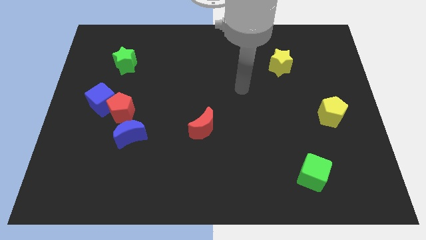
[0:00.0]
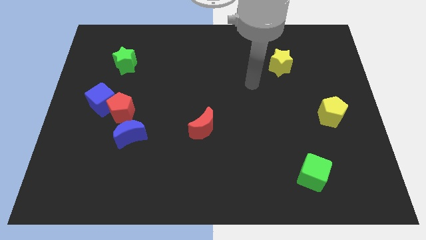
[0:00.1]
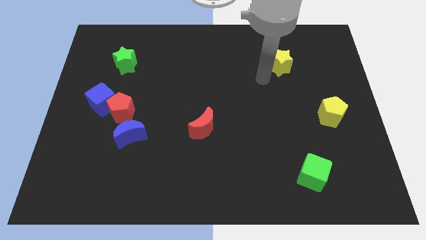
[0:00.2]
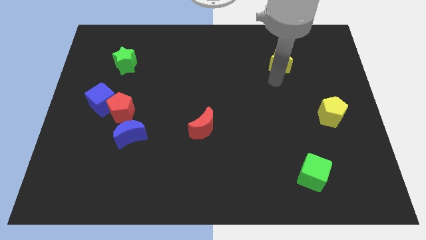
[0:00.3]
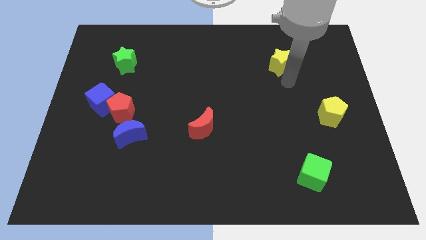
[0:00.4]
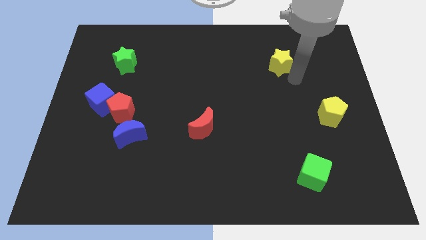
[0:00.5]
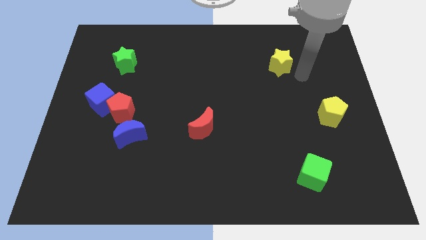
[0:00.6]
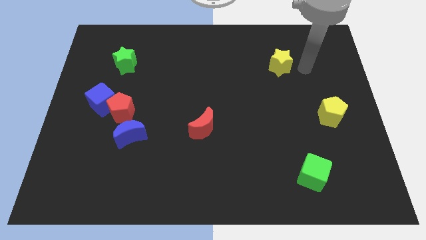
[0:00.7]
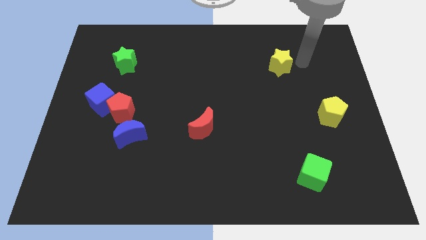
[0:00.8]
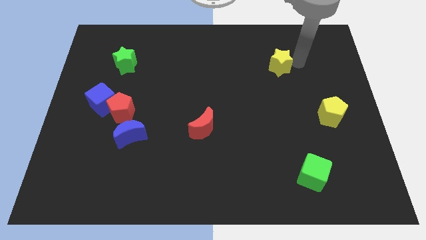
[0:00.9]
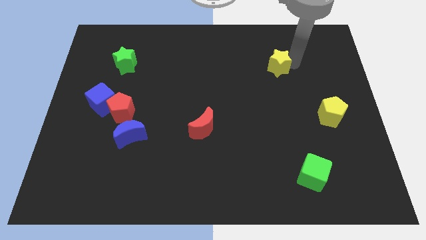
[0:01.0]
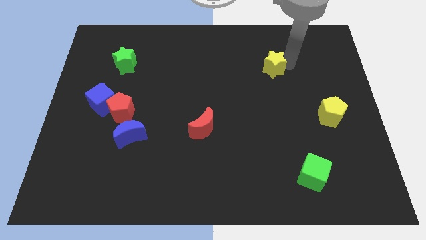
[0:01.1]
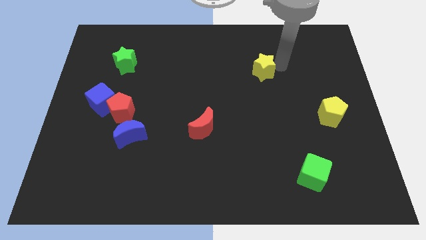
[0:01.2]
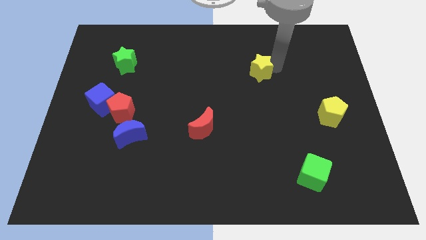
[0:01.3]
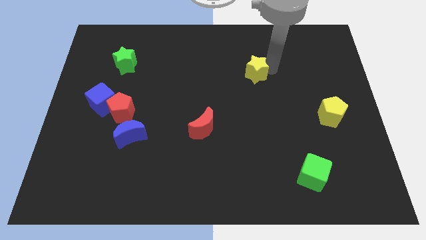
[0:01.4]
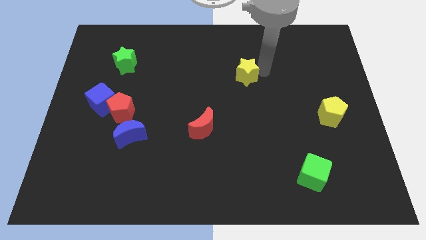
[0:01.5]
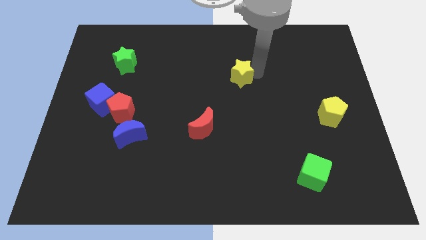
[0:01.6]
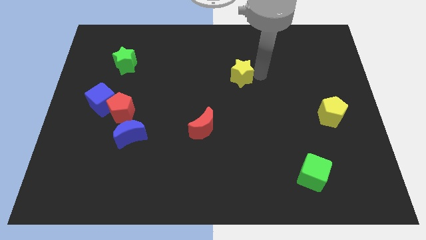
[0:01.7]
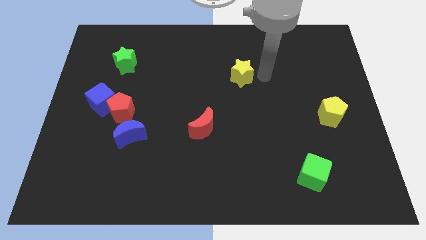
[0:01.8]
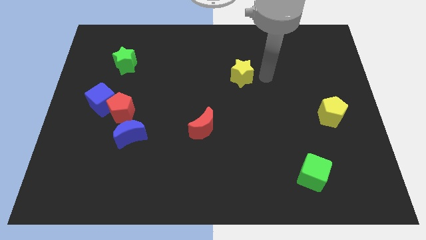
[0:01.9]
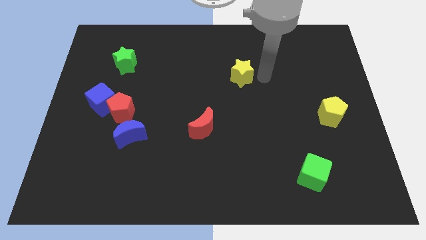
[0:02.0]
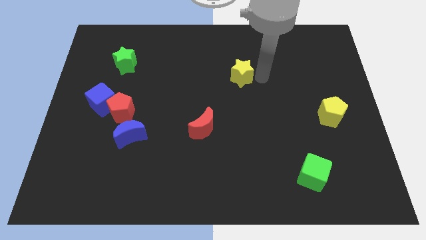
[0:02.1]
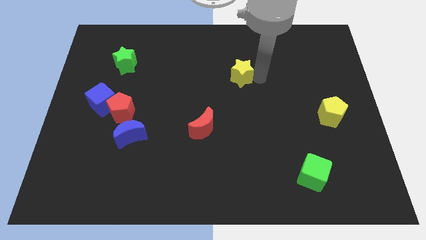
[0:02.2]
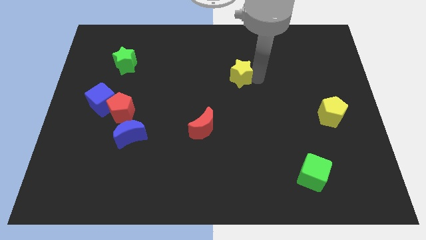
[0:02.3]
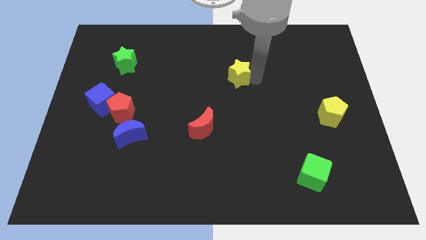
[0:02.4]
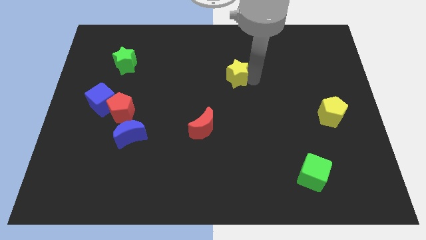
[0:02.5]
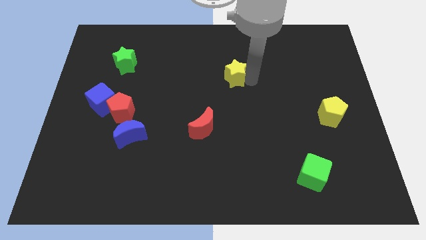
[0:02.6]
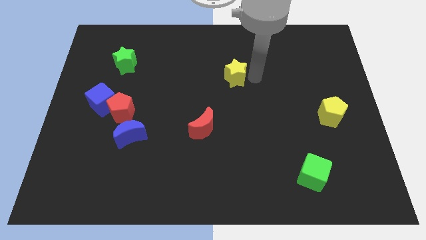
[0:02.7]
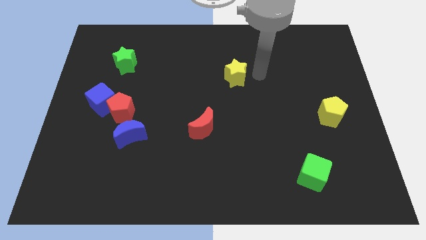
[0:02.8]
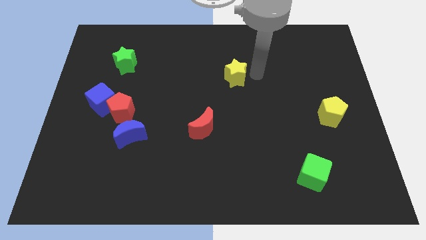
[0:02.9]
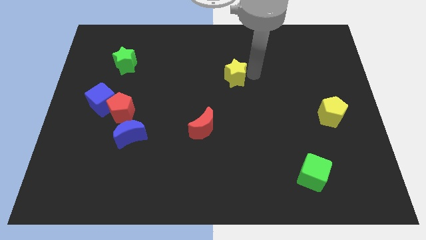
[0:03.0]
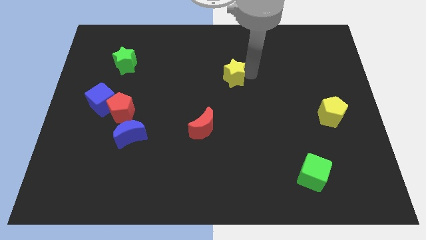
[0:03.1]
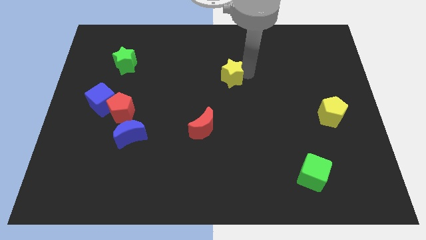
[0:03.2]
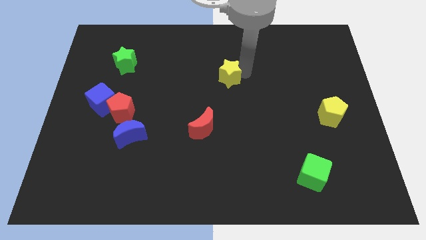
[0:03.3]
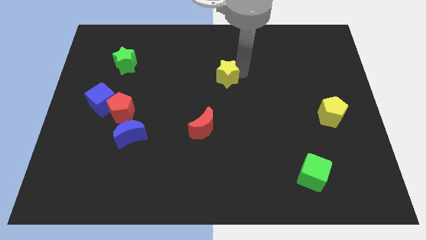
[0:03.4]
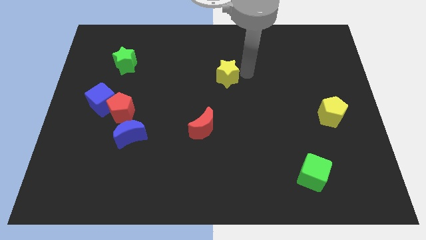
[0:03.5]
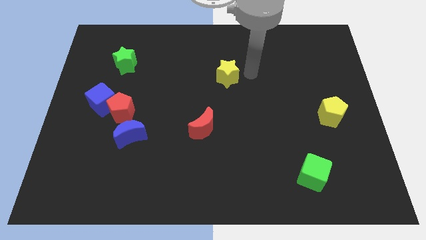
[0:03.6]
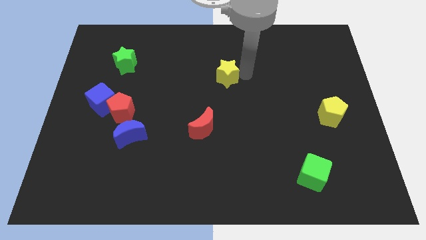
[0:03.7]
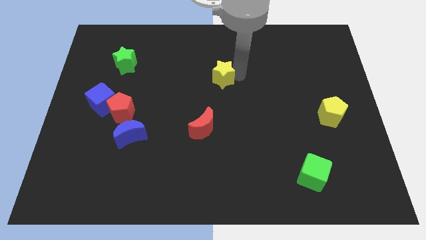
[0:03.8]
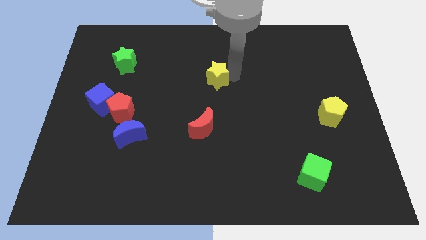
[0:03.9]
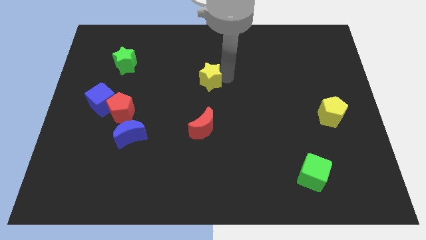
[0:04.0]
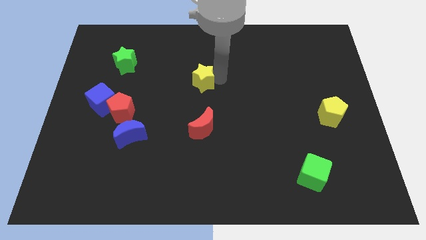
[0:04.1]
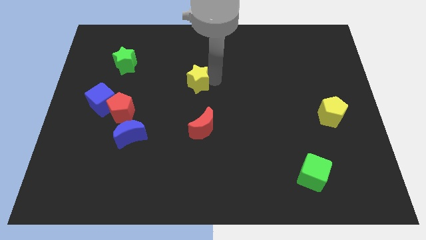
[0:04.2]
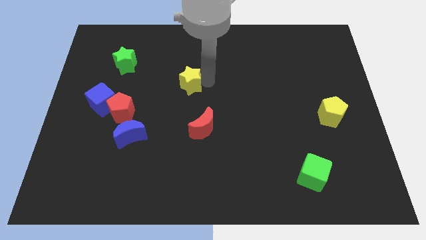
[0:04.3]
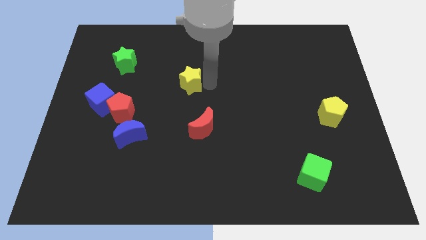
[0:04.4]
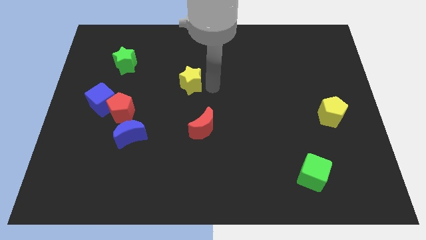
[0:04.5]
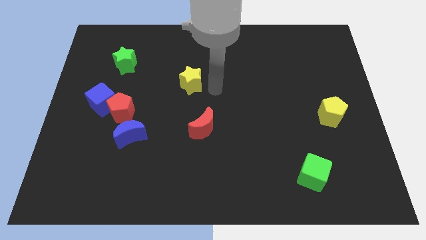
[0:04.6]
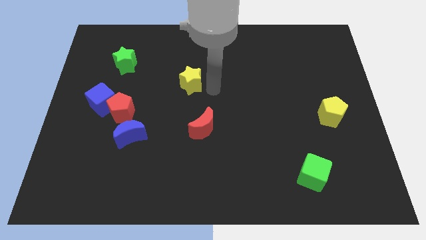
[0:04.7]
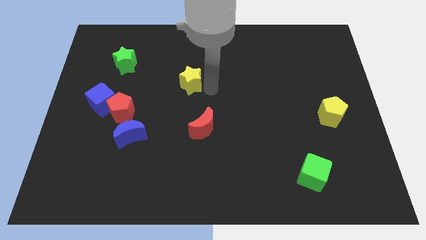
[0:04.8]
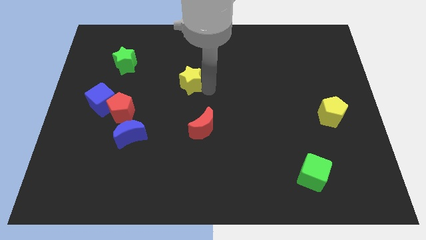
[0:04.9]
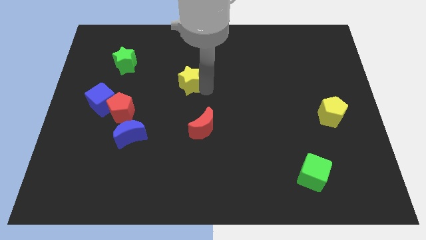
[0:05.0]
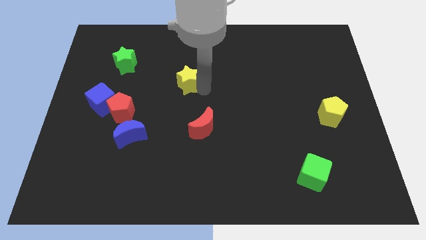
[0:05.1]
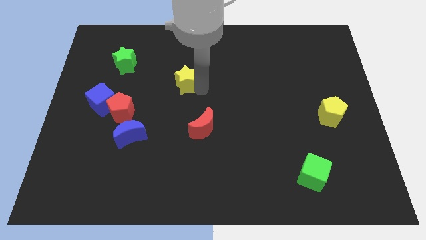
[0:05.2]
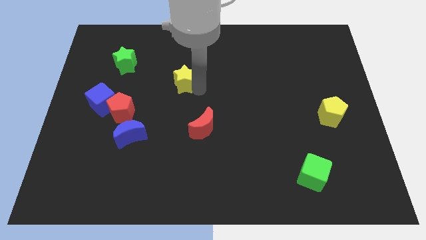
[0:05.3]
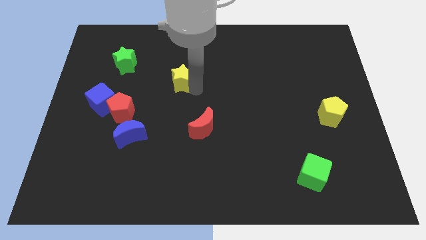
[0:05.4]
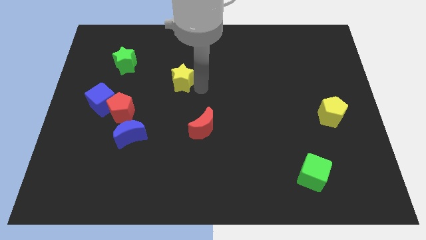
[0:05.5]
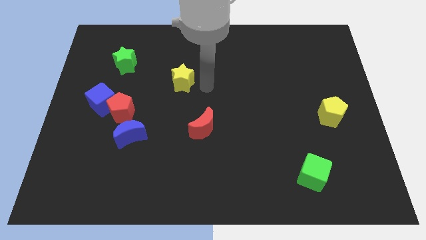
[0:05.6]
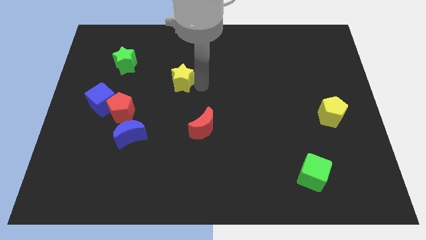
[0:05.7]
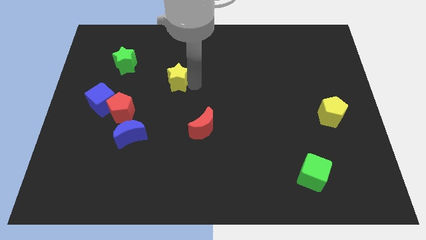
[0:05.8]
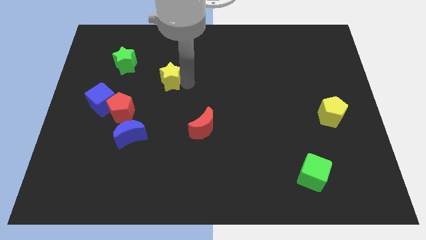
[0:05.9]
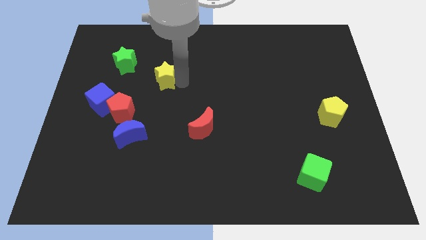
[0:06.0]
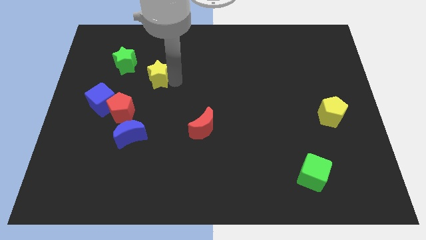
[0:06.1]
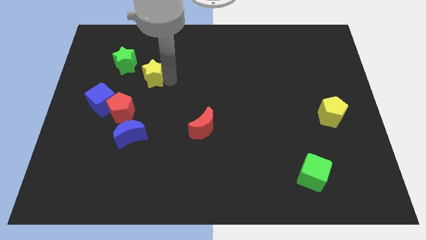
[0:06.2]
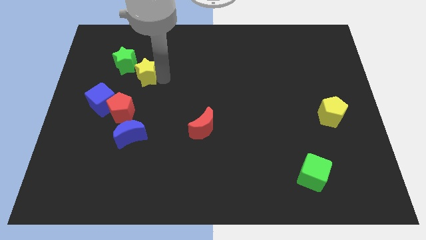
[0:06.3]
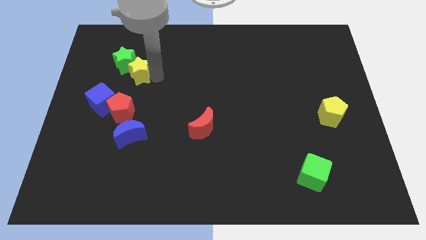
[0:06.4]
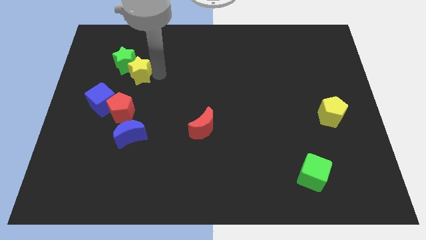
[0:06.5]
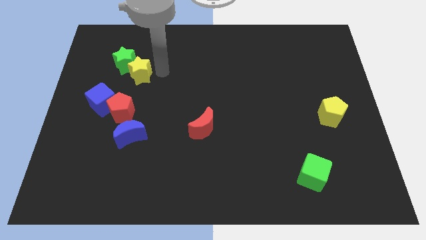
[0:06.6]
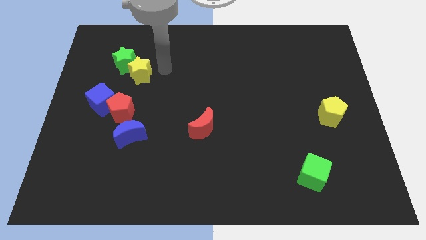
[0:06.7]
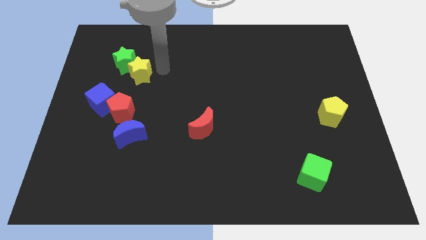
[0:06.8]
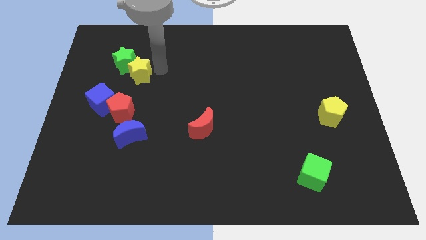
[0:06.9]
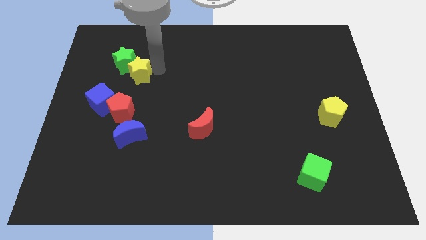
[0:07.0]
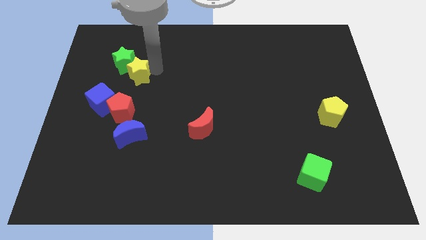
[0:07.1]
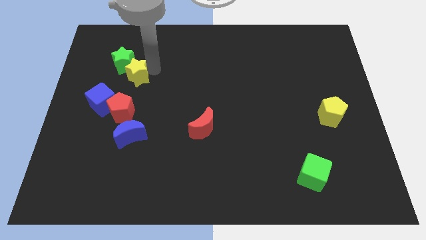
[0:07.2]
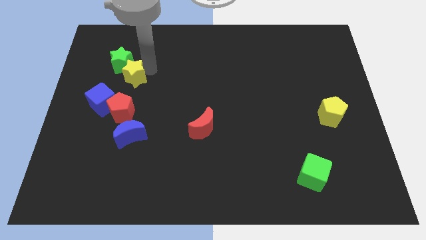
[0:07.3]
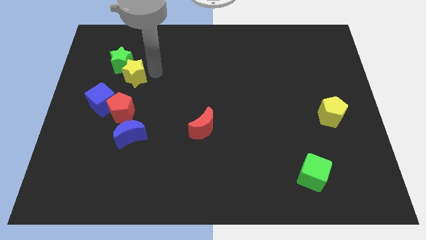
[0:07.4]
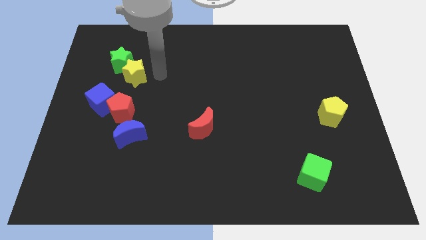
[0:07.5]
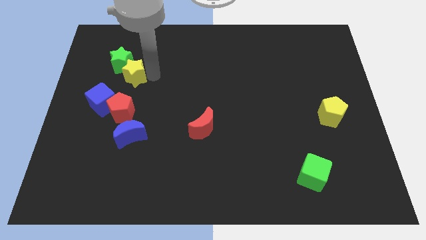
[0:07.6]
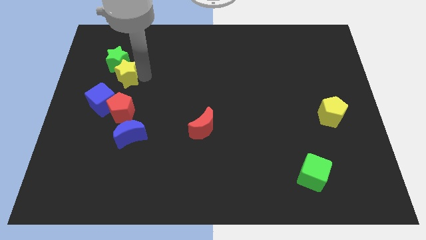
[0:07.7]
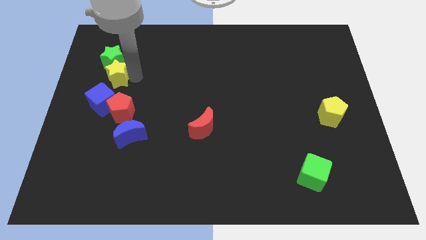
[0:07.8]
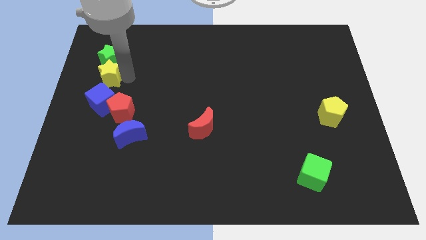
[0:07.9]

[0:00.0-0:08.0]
move the yellow star diagonally down and to the left of the green star
